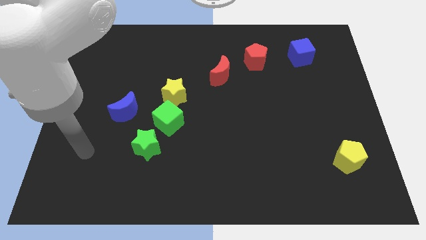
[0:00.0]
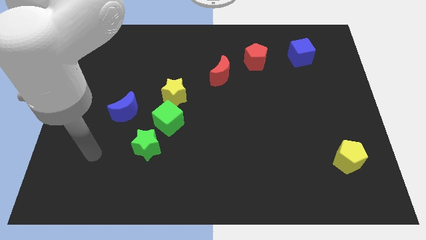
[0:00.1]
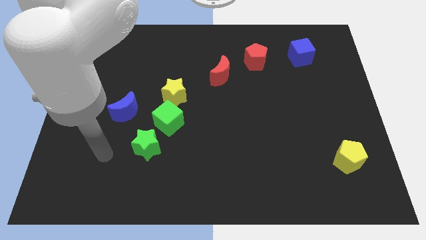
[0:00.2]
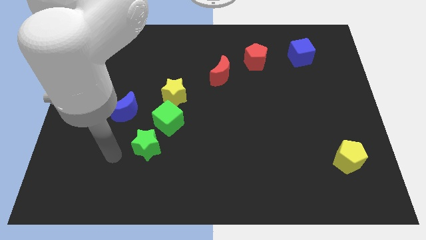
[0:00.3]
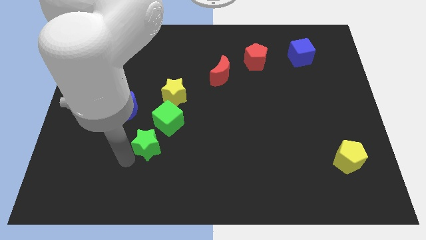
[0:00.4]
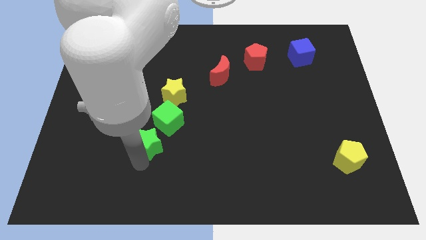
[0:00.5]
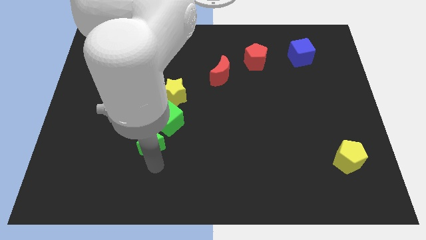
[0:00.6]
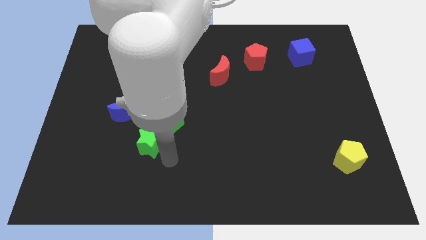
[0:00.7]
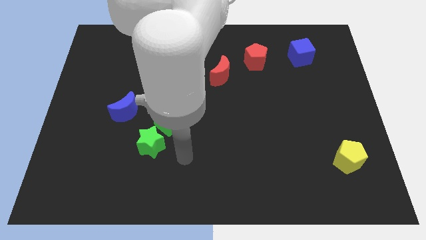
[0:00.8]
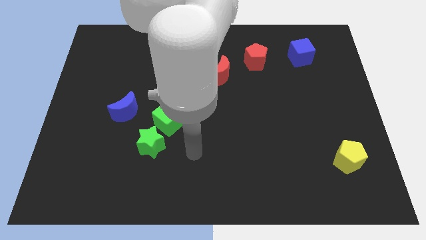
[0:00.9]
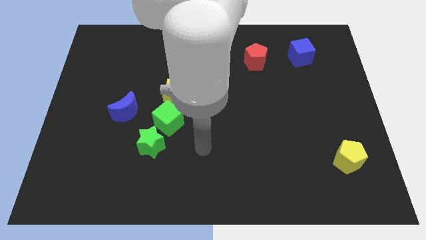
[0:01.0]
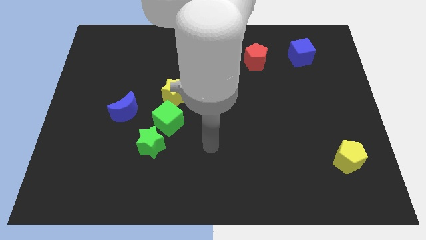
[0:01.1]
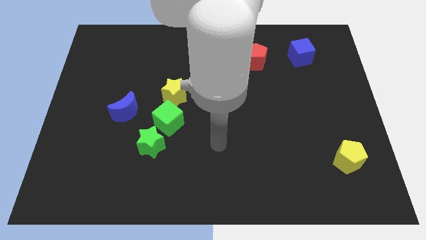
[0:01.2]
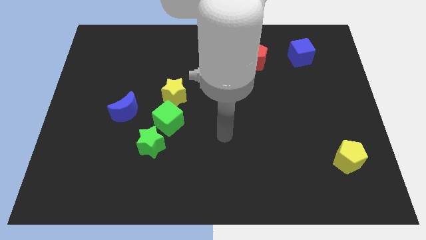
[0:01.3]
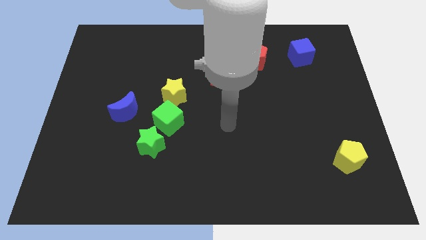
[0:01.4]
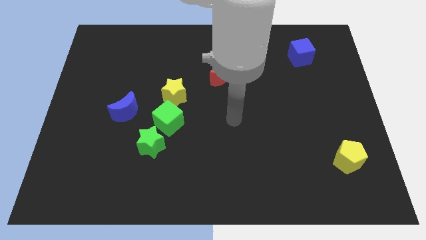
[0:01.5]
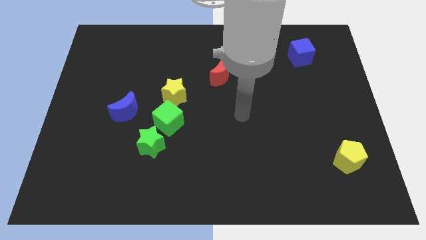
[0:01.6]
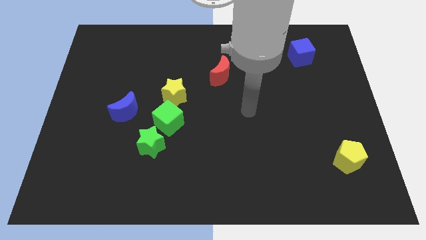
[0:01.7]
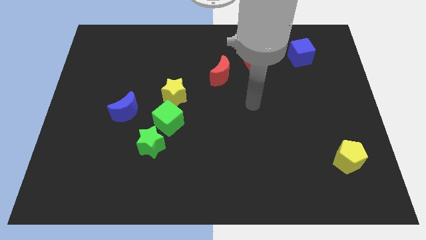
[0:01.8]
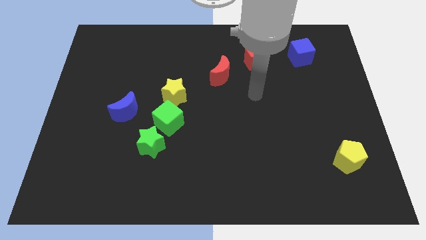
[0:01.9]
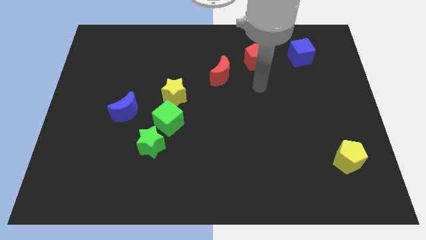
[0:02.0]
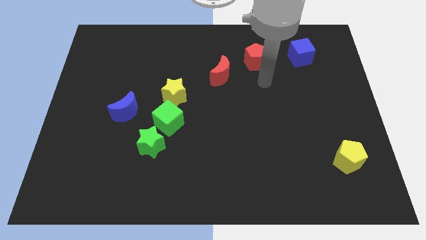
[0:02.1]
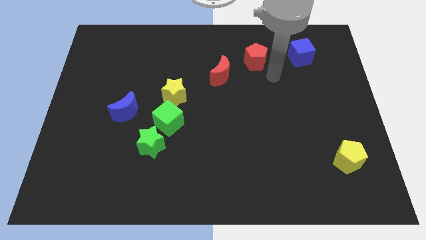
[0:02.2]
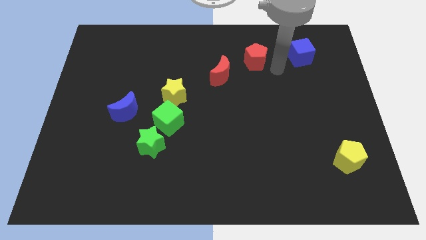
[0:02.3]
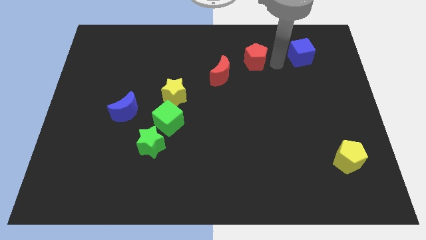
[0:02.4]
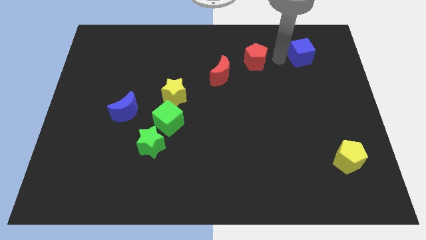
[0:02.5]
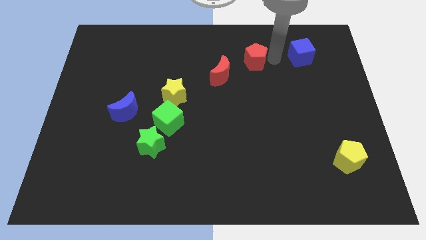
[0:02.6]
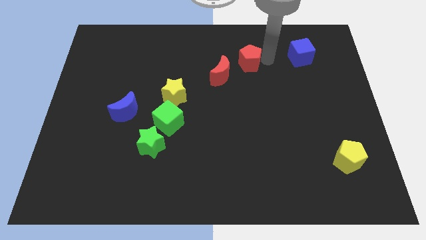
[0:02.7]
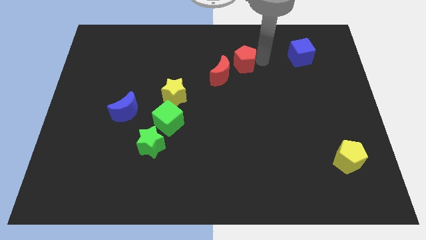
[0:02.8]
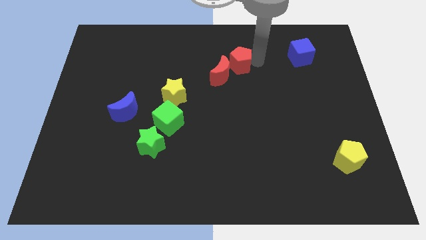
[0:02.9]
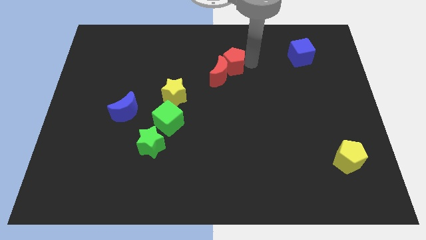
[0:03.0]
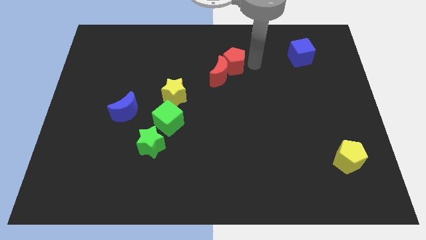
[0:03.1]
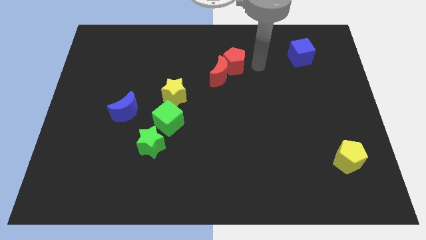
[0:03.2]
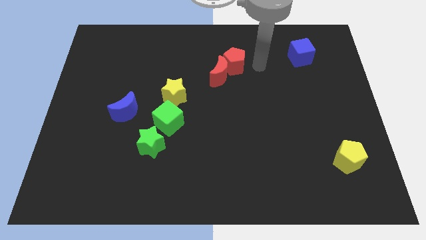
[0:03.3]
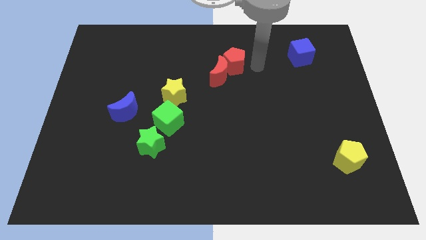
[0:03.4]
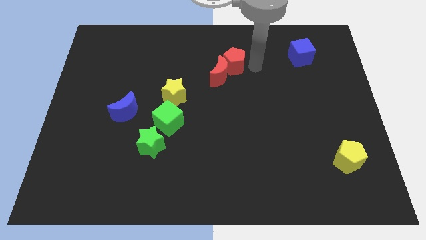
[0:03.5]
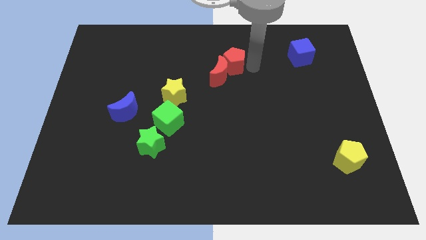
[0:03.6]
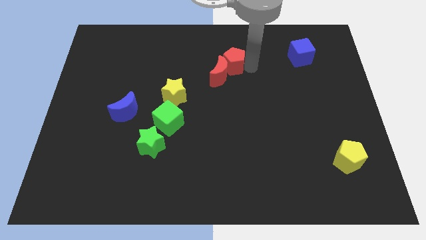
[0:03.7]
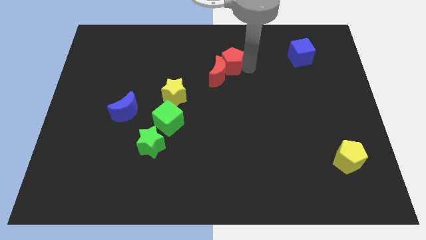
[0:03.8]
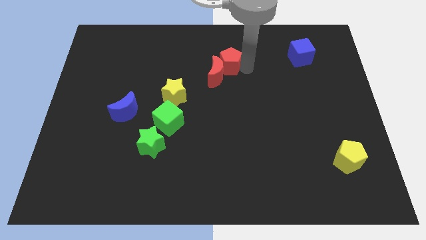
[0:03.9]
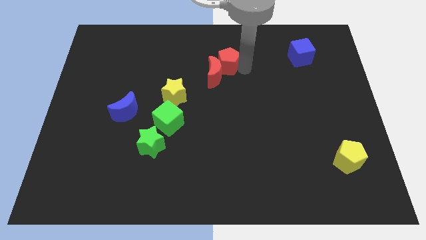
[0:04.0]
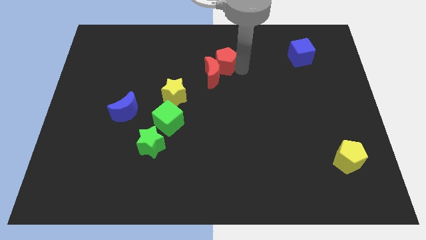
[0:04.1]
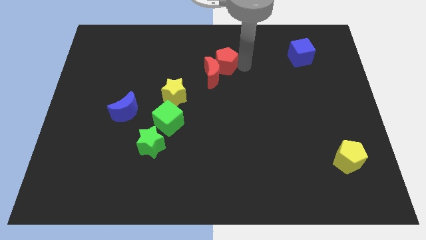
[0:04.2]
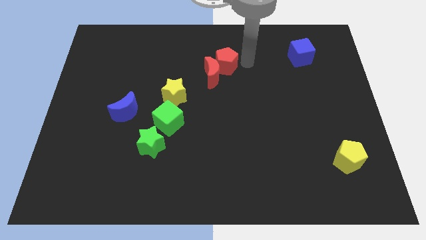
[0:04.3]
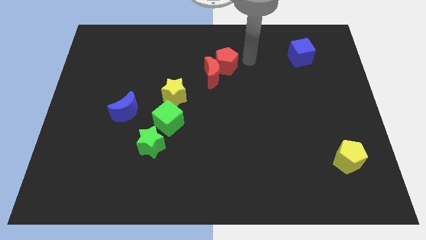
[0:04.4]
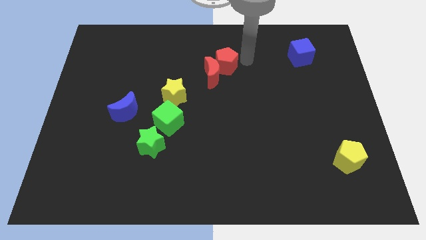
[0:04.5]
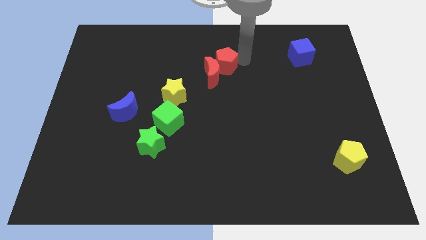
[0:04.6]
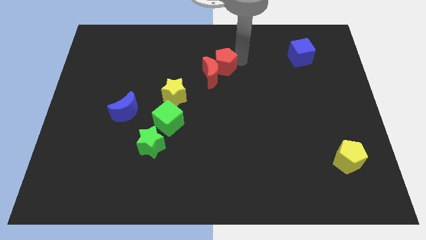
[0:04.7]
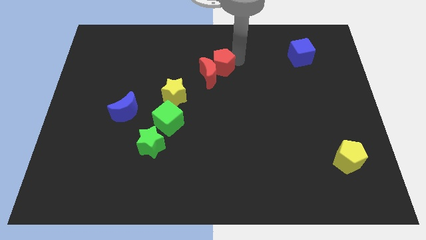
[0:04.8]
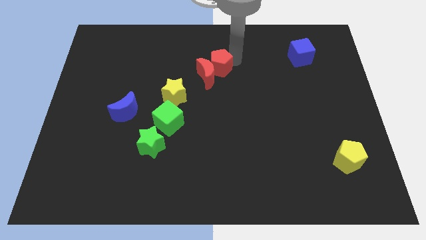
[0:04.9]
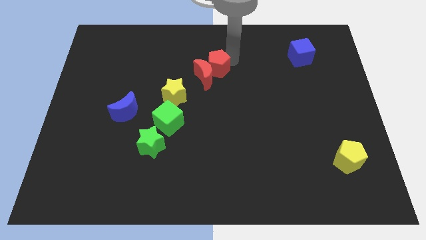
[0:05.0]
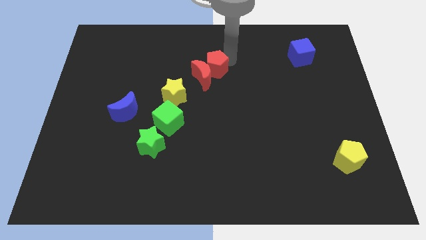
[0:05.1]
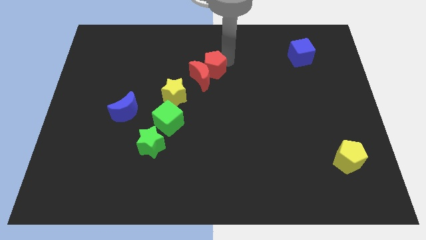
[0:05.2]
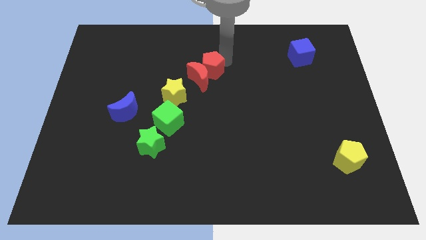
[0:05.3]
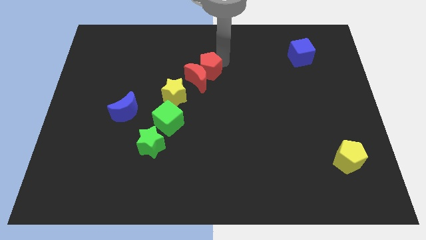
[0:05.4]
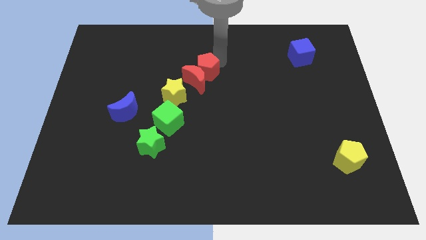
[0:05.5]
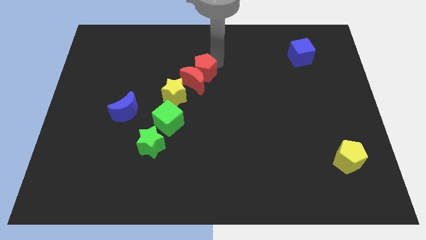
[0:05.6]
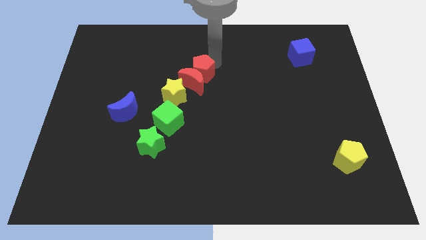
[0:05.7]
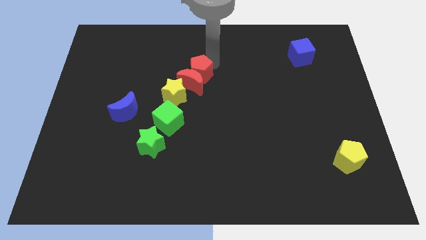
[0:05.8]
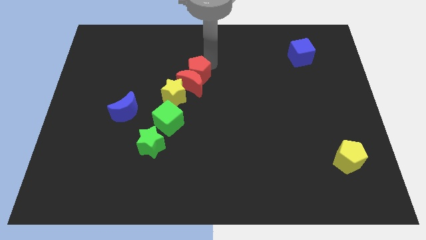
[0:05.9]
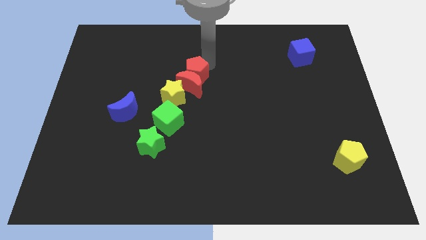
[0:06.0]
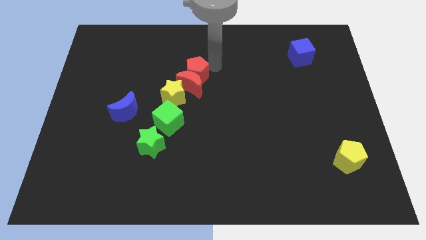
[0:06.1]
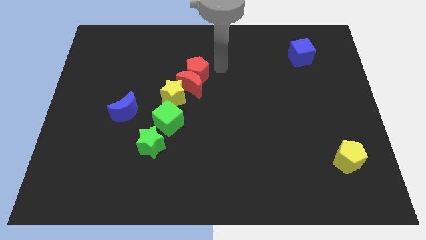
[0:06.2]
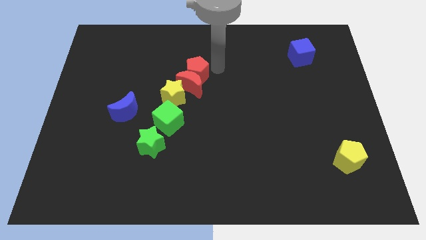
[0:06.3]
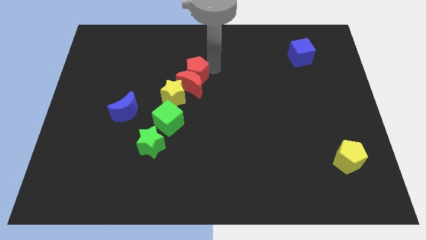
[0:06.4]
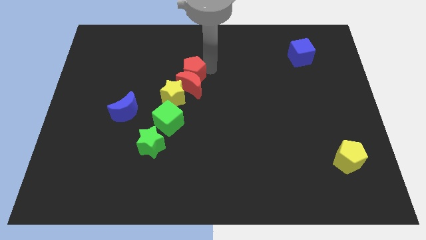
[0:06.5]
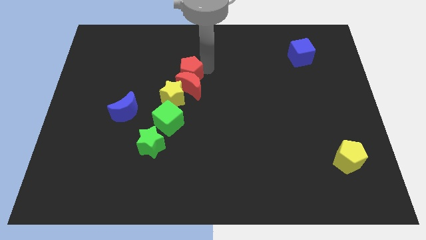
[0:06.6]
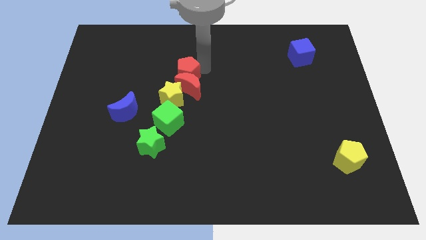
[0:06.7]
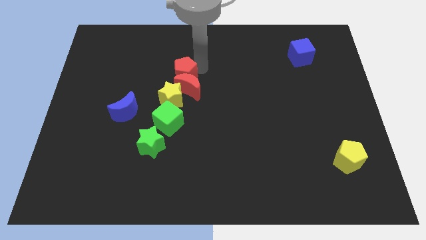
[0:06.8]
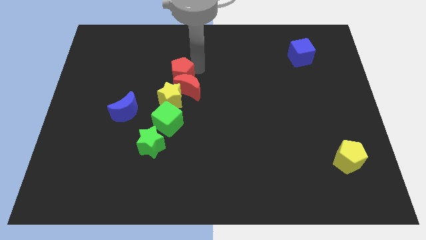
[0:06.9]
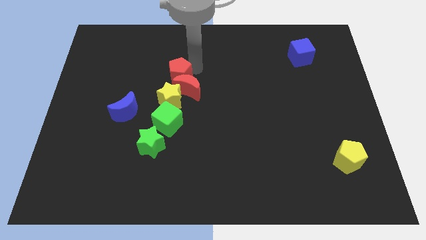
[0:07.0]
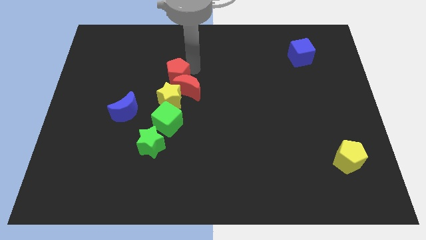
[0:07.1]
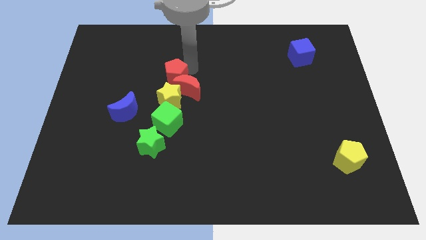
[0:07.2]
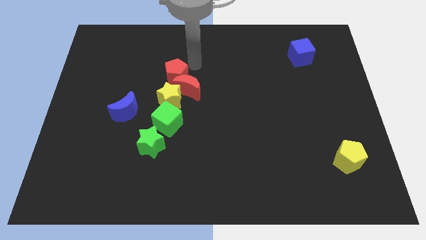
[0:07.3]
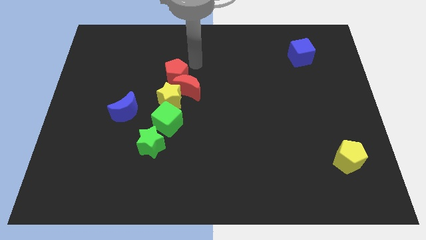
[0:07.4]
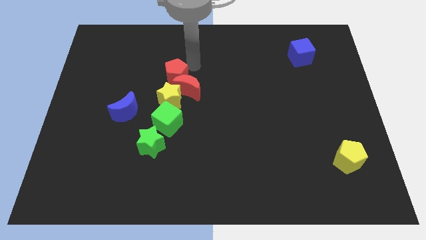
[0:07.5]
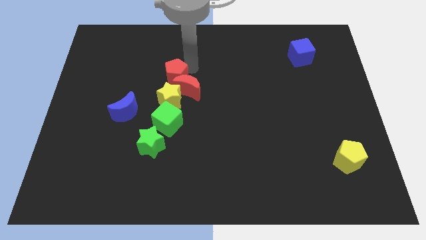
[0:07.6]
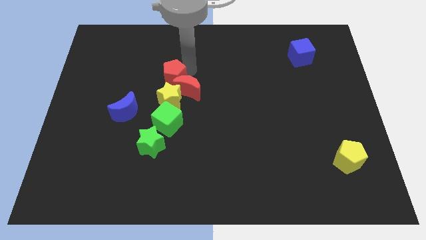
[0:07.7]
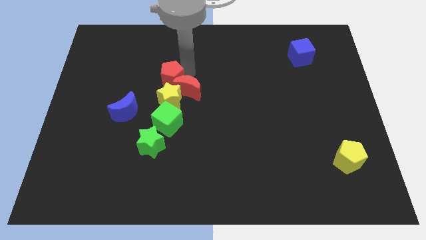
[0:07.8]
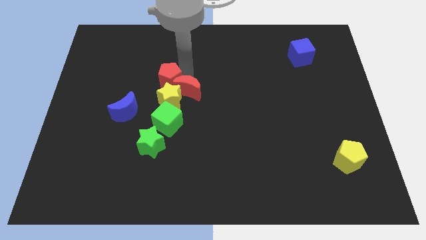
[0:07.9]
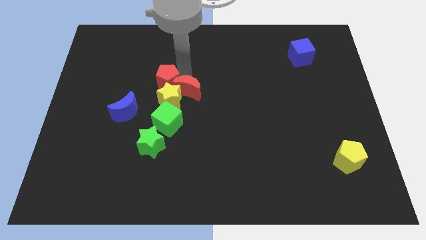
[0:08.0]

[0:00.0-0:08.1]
put the red pentagon to the top right side of the blue moon

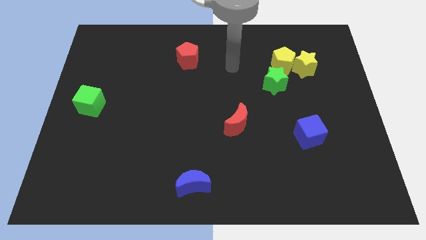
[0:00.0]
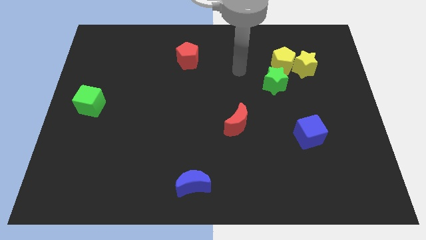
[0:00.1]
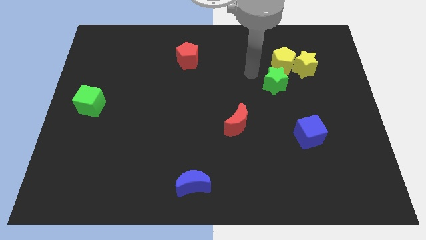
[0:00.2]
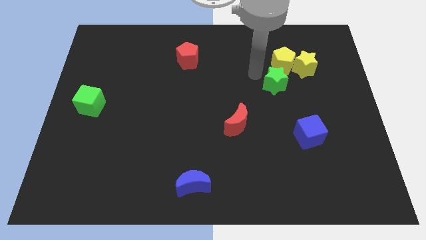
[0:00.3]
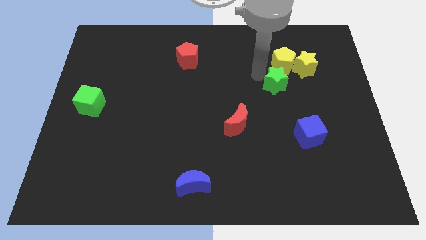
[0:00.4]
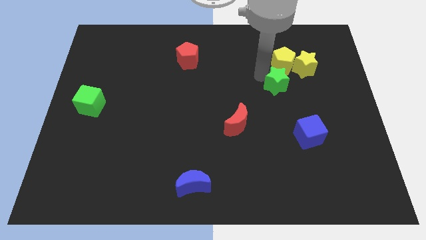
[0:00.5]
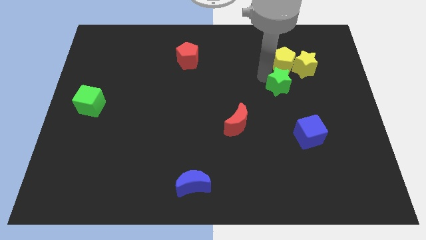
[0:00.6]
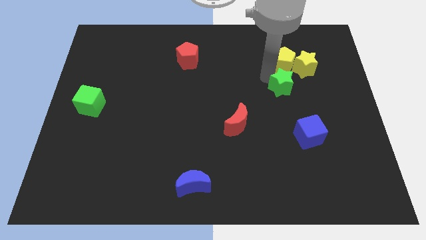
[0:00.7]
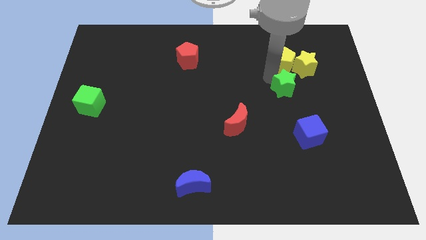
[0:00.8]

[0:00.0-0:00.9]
push the green star to the top side of the blue cube
